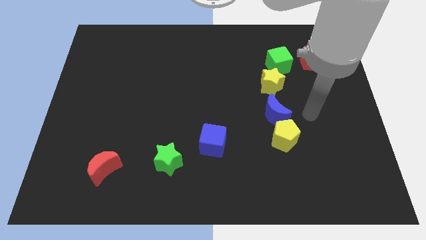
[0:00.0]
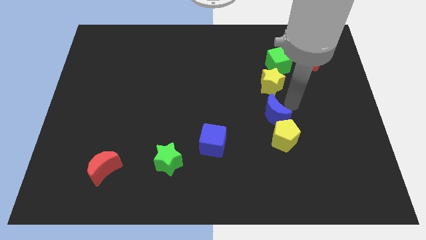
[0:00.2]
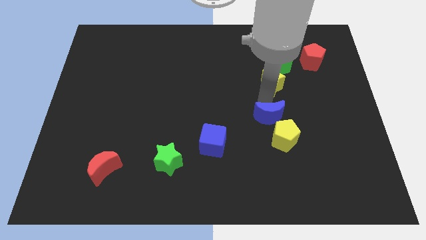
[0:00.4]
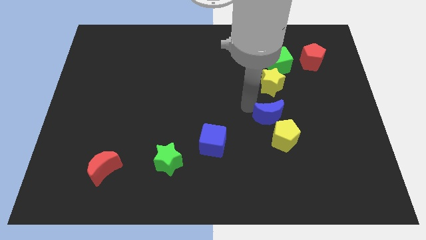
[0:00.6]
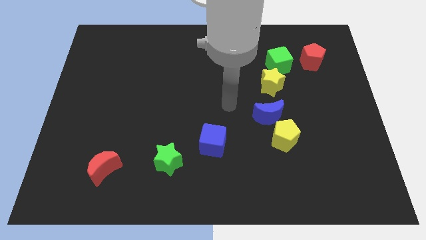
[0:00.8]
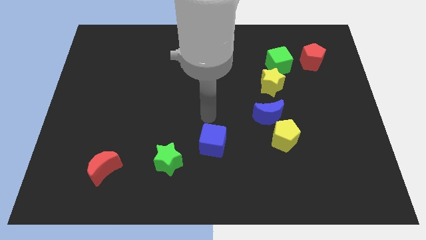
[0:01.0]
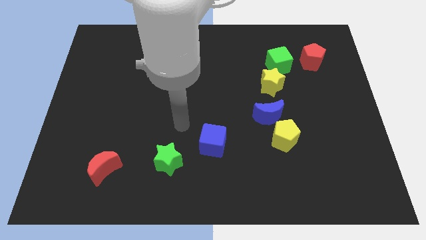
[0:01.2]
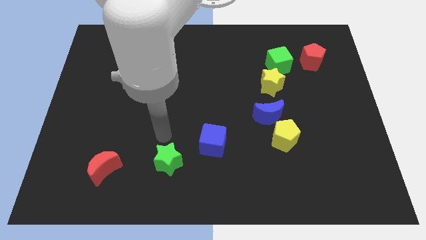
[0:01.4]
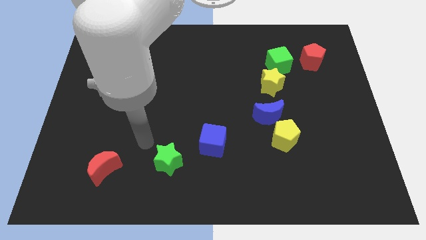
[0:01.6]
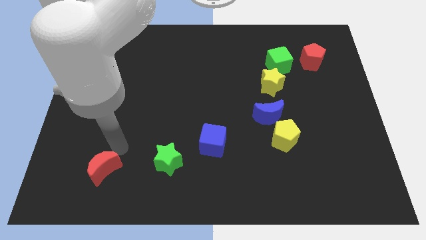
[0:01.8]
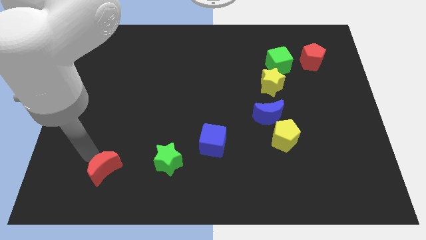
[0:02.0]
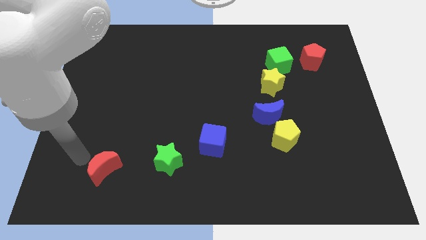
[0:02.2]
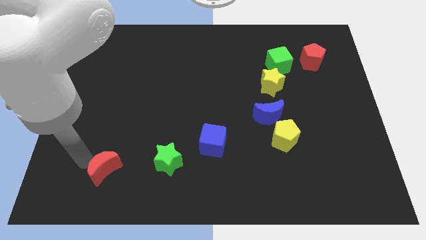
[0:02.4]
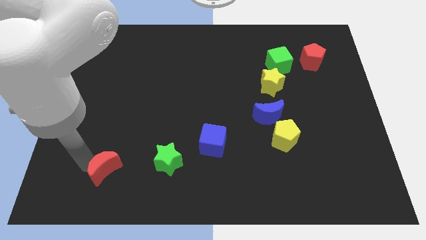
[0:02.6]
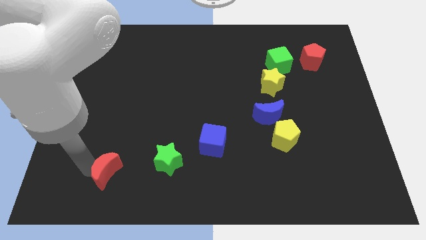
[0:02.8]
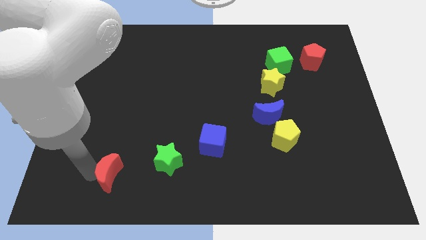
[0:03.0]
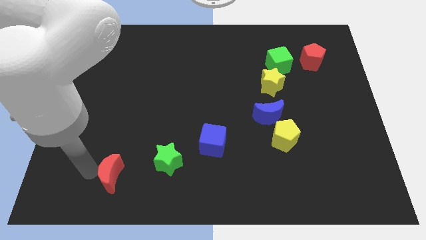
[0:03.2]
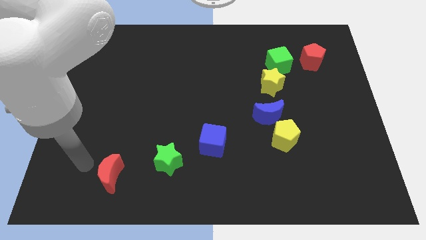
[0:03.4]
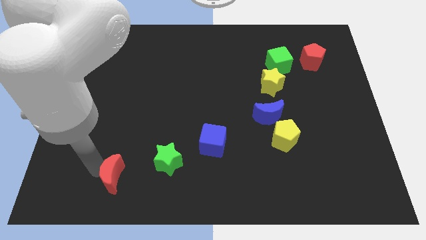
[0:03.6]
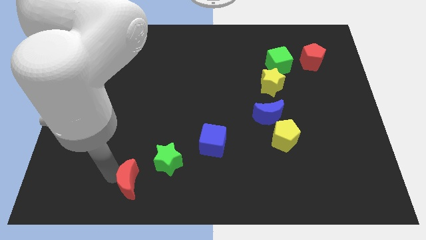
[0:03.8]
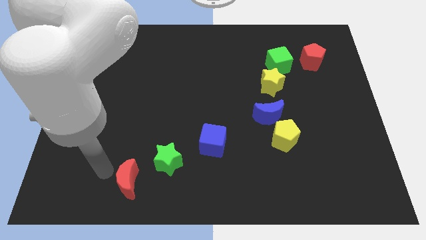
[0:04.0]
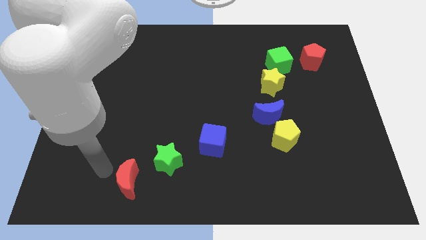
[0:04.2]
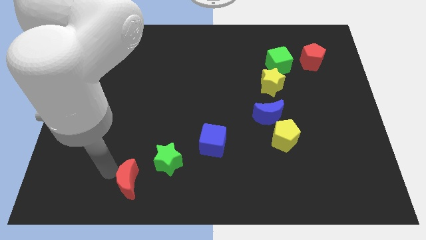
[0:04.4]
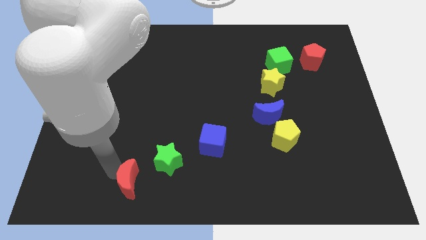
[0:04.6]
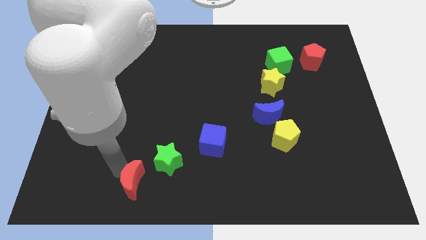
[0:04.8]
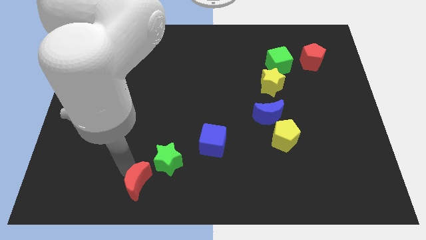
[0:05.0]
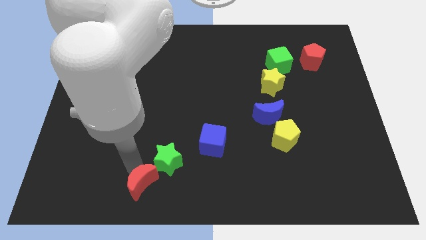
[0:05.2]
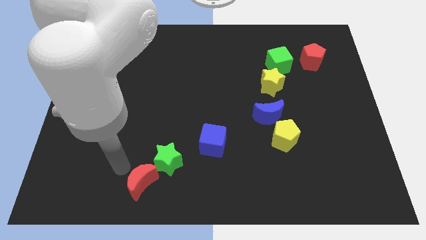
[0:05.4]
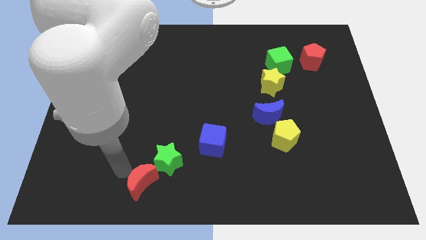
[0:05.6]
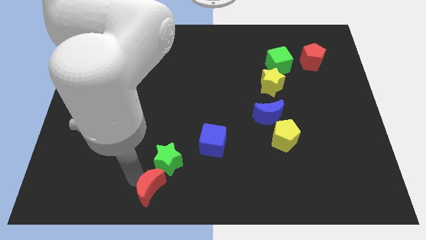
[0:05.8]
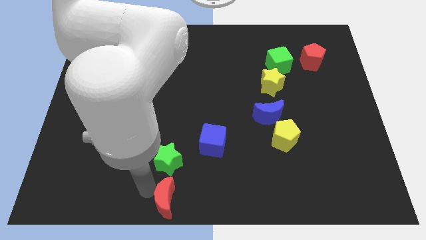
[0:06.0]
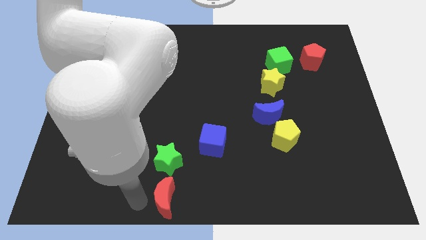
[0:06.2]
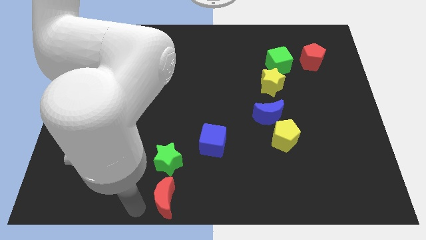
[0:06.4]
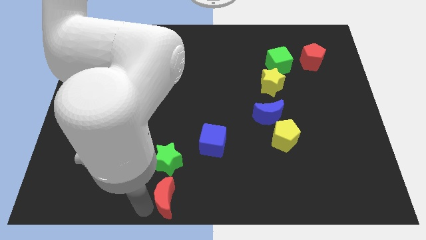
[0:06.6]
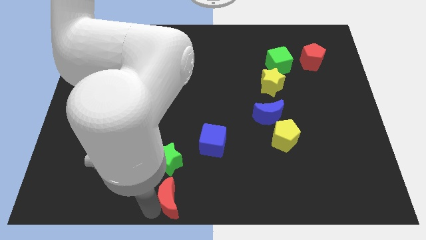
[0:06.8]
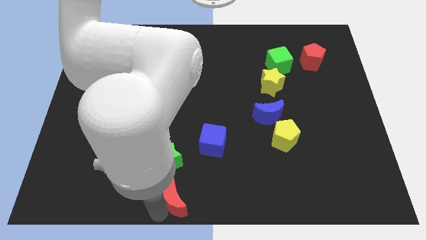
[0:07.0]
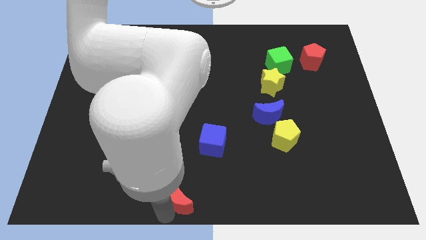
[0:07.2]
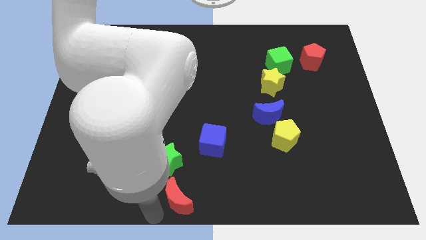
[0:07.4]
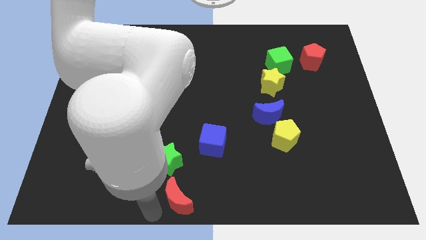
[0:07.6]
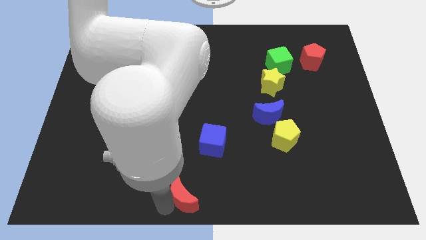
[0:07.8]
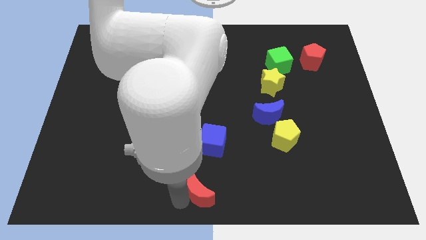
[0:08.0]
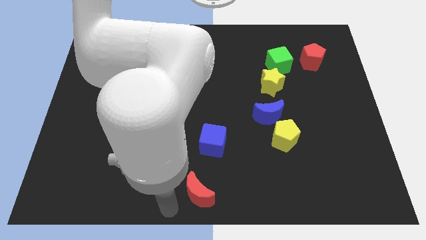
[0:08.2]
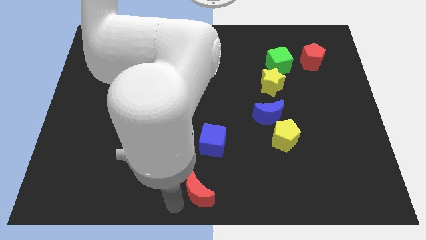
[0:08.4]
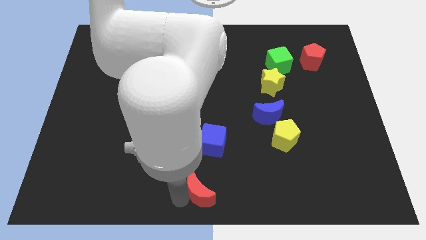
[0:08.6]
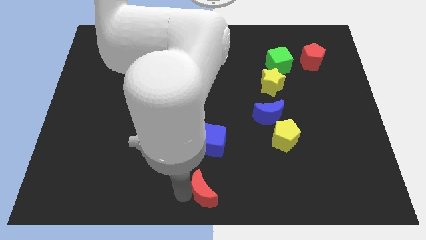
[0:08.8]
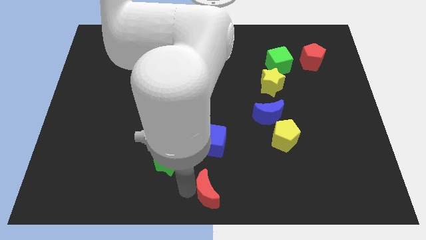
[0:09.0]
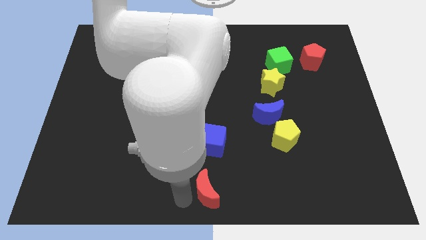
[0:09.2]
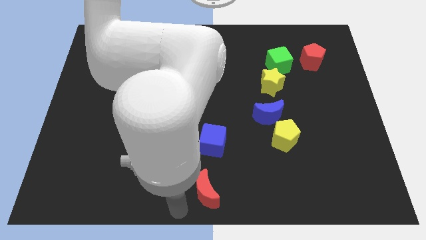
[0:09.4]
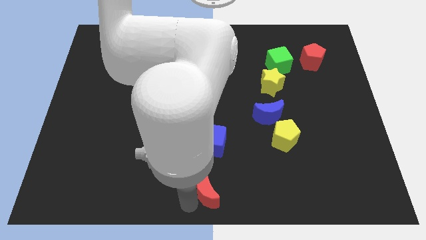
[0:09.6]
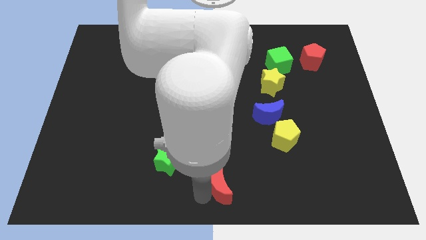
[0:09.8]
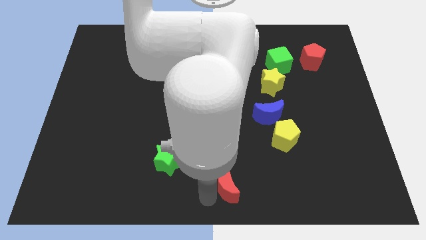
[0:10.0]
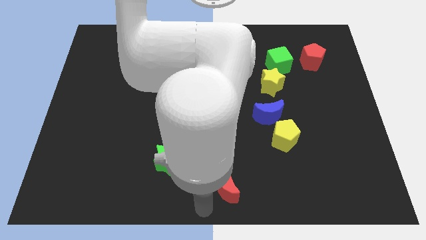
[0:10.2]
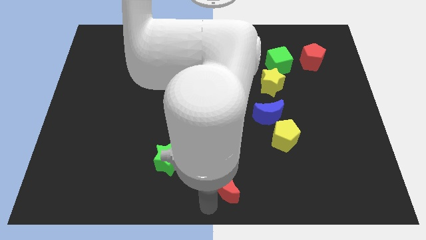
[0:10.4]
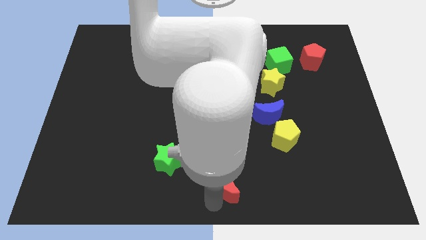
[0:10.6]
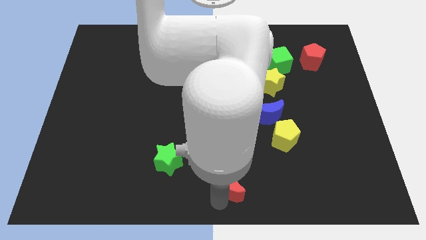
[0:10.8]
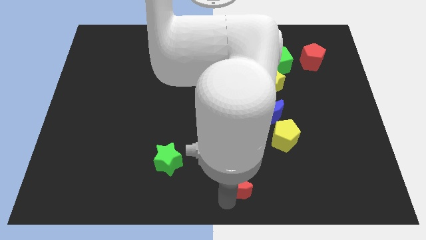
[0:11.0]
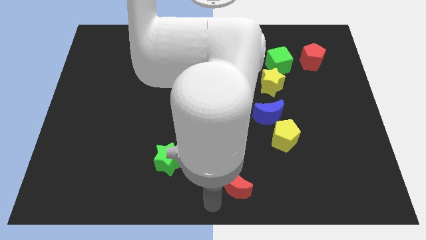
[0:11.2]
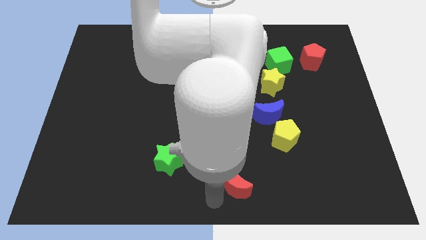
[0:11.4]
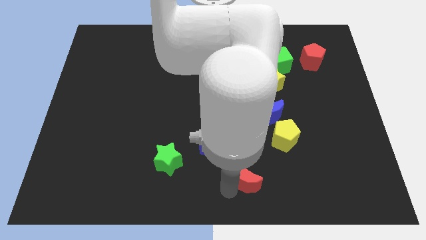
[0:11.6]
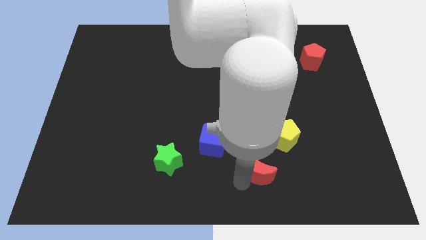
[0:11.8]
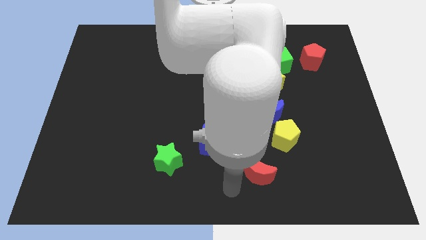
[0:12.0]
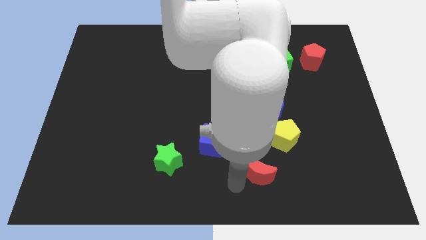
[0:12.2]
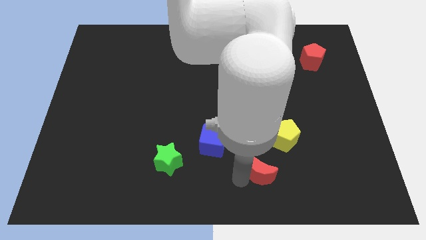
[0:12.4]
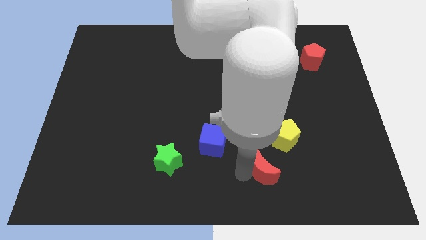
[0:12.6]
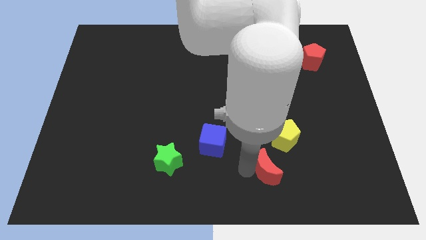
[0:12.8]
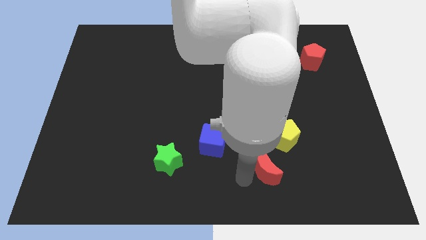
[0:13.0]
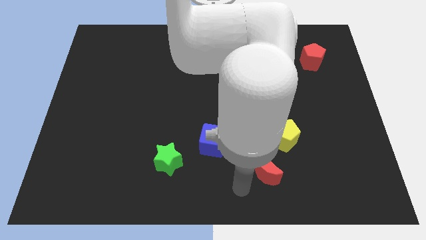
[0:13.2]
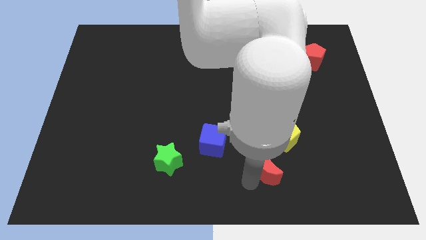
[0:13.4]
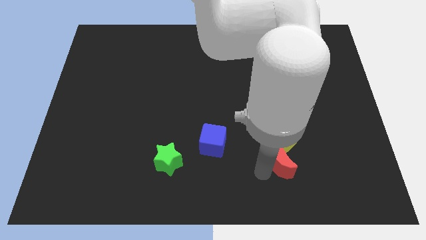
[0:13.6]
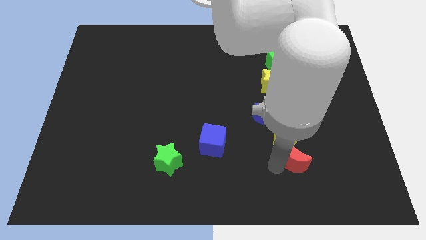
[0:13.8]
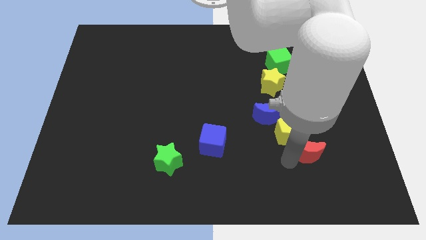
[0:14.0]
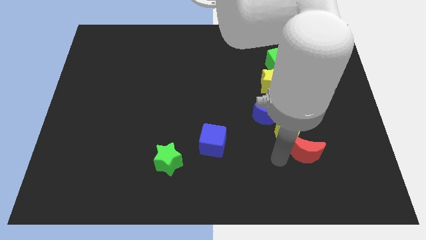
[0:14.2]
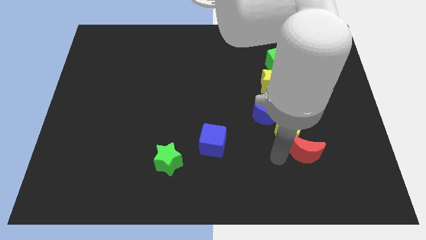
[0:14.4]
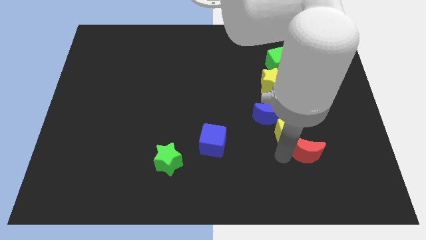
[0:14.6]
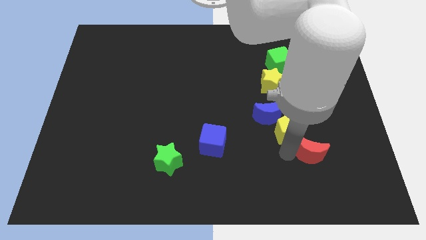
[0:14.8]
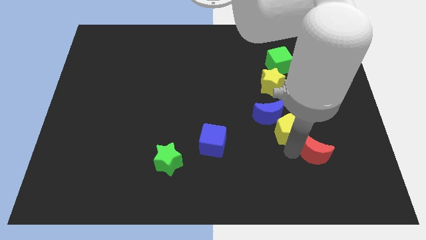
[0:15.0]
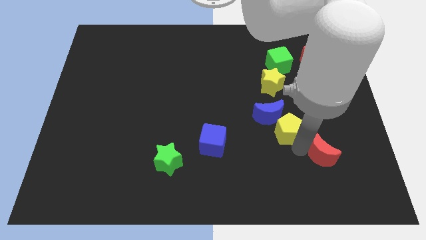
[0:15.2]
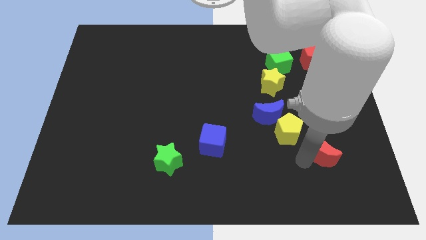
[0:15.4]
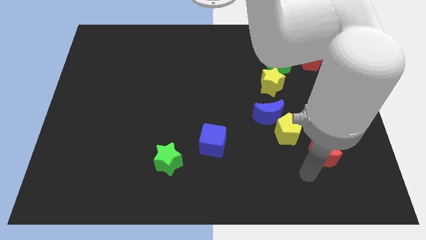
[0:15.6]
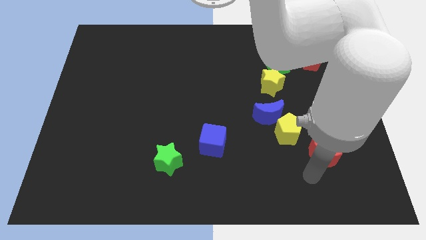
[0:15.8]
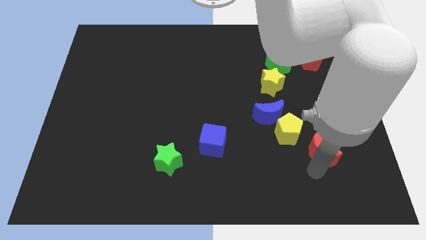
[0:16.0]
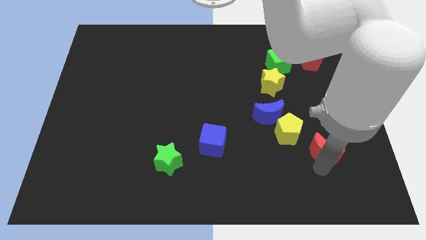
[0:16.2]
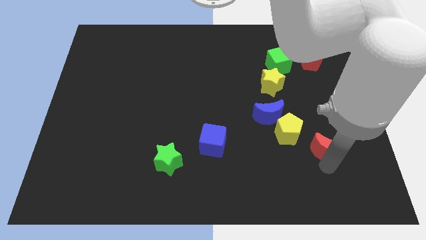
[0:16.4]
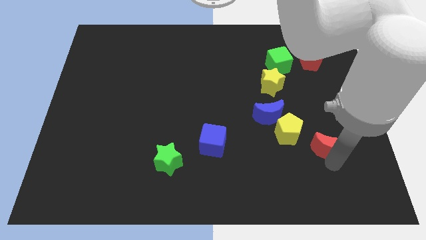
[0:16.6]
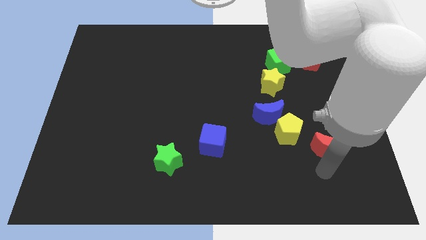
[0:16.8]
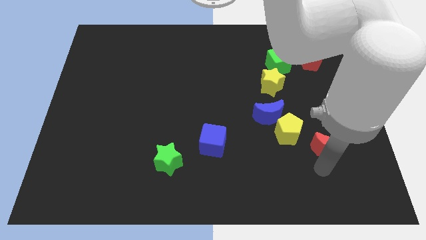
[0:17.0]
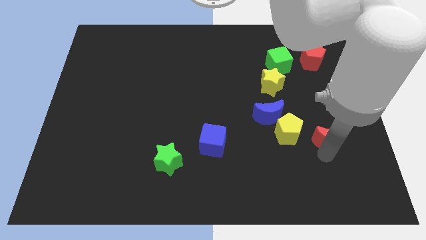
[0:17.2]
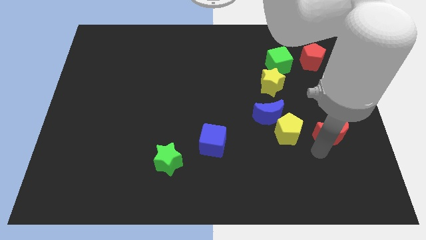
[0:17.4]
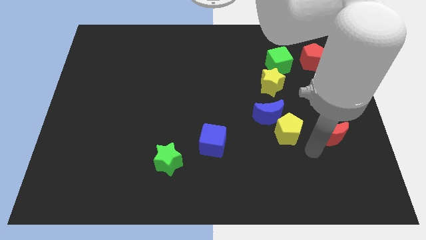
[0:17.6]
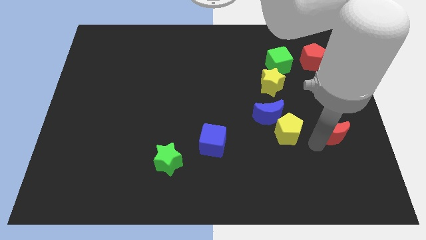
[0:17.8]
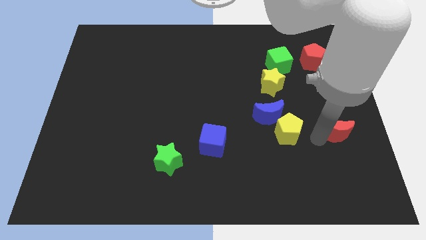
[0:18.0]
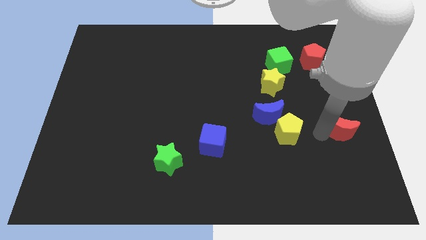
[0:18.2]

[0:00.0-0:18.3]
move the red moon to the right side of the board
